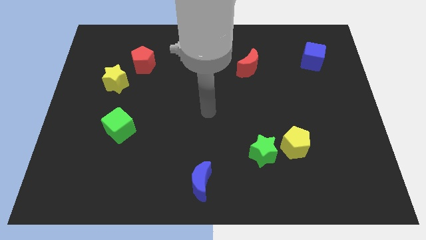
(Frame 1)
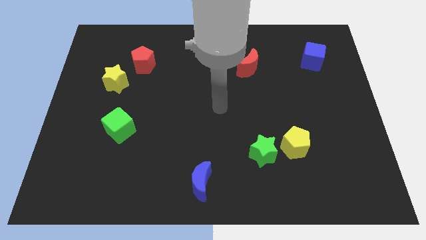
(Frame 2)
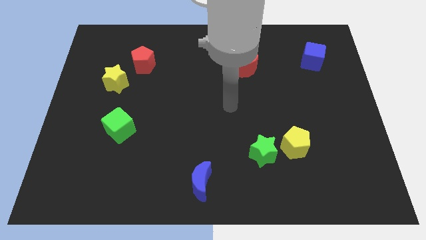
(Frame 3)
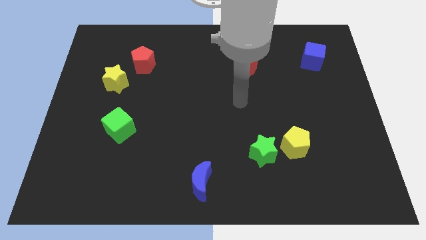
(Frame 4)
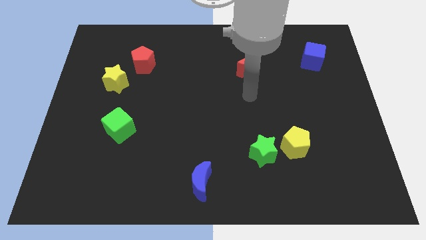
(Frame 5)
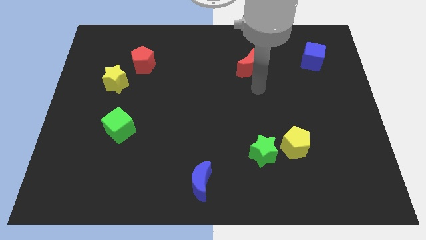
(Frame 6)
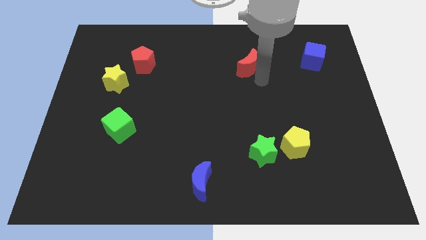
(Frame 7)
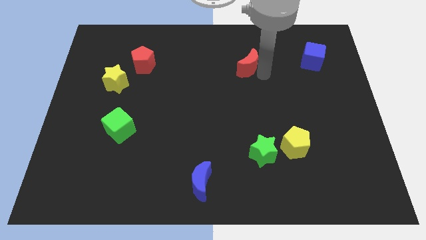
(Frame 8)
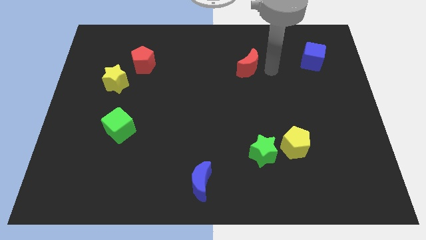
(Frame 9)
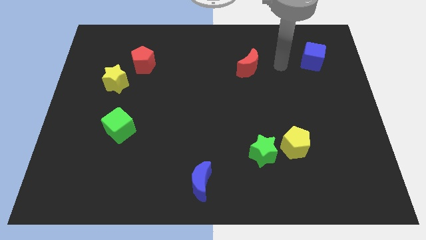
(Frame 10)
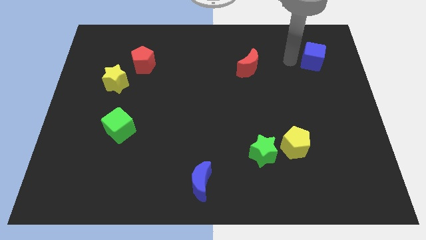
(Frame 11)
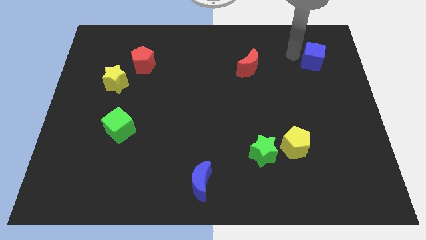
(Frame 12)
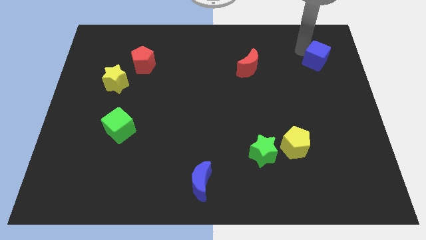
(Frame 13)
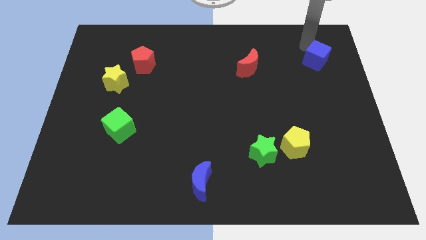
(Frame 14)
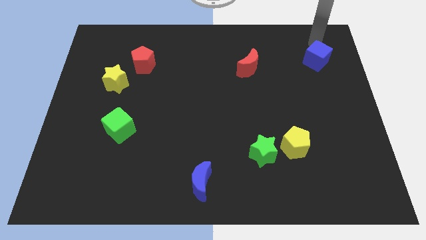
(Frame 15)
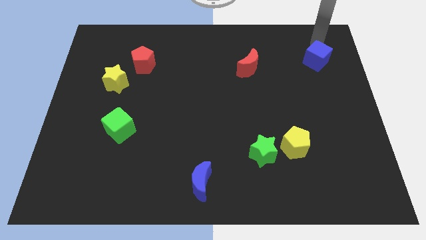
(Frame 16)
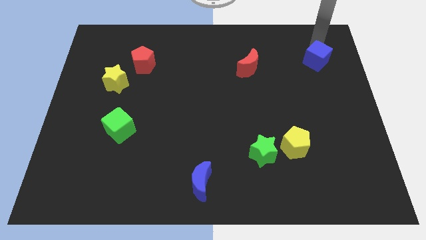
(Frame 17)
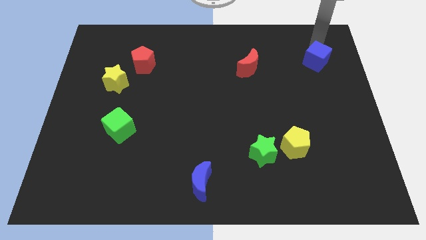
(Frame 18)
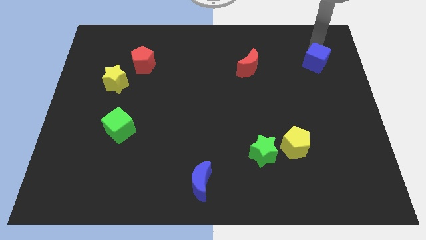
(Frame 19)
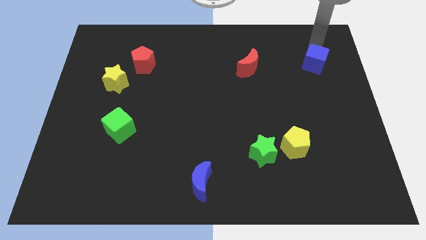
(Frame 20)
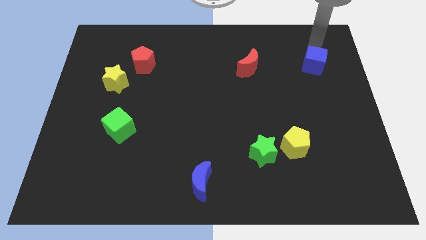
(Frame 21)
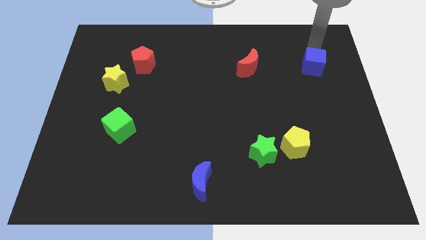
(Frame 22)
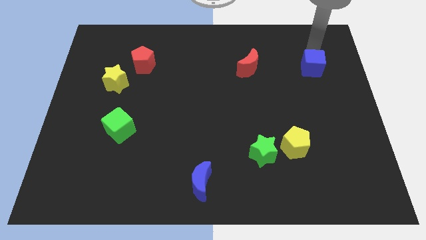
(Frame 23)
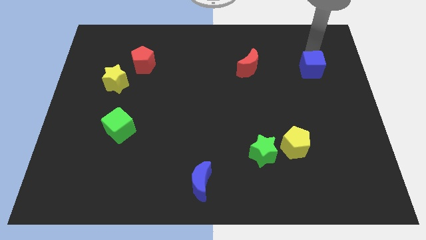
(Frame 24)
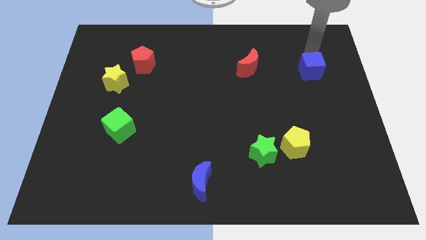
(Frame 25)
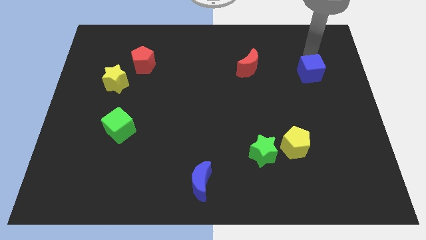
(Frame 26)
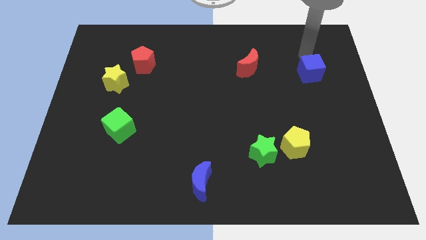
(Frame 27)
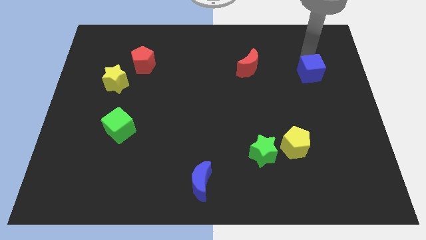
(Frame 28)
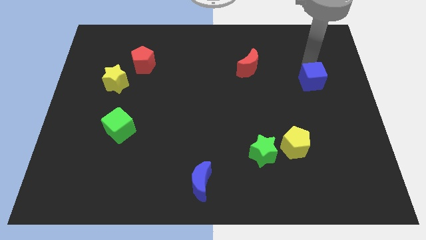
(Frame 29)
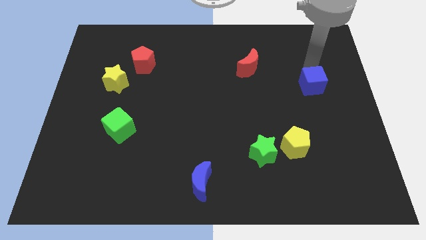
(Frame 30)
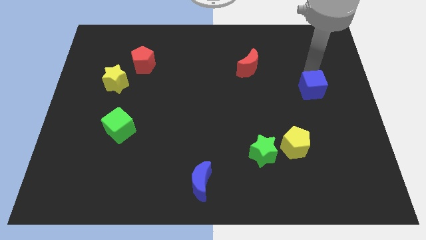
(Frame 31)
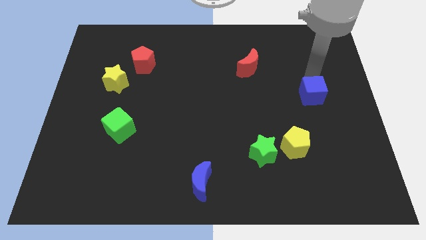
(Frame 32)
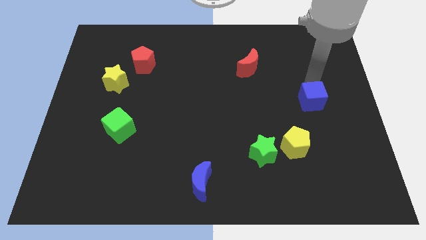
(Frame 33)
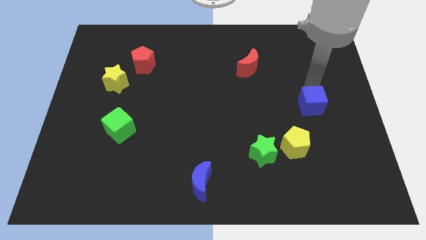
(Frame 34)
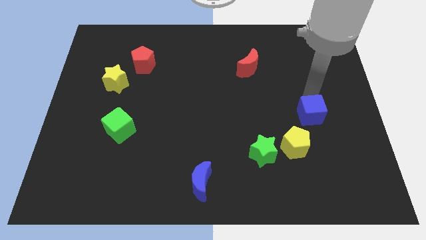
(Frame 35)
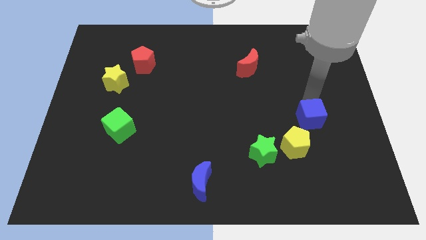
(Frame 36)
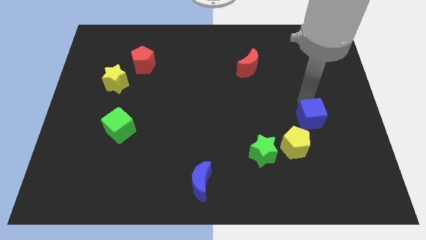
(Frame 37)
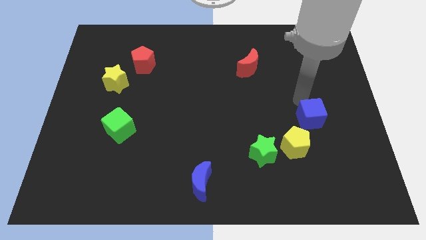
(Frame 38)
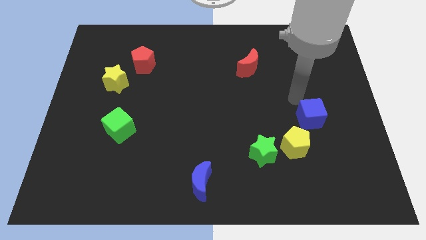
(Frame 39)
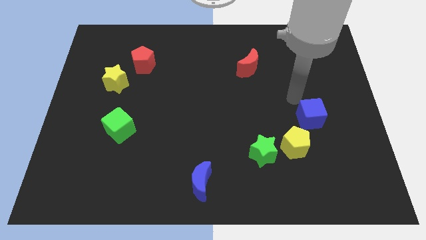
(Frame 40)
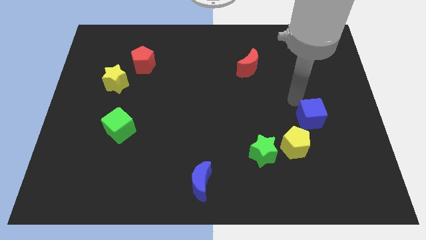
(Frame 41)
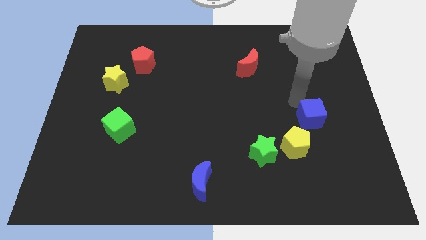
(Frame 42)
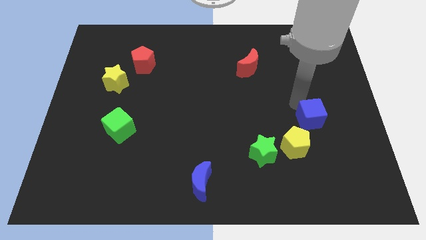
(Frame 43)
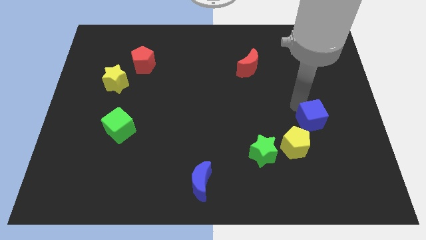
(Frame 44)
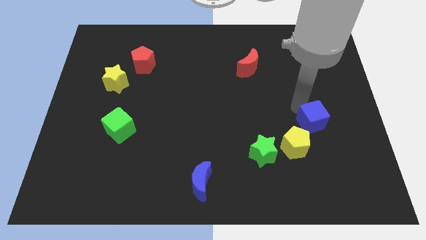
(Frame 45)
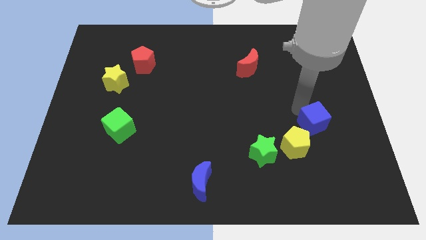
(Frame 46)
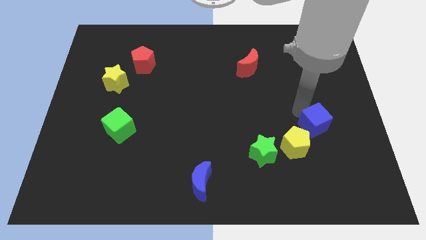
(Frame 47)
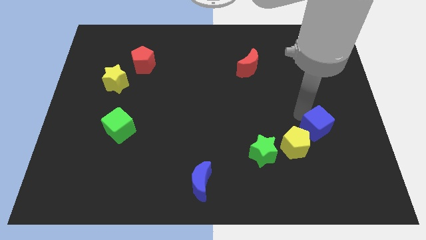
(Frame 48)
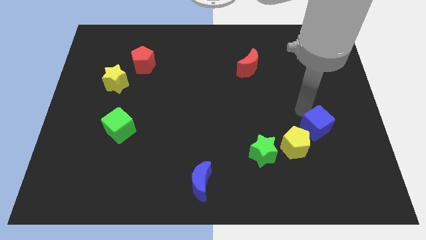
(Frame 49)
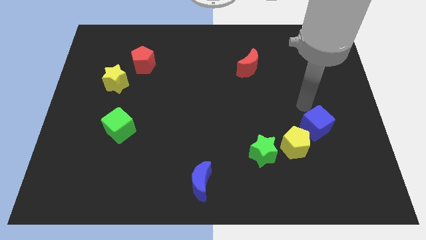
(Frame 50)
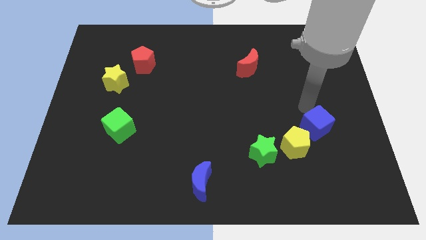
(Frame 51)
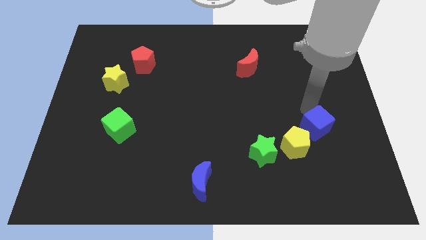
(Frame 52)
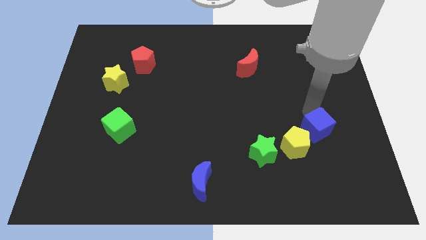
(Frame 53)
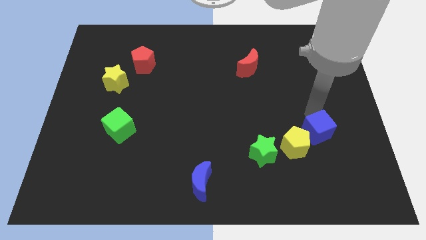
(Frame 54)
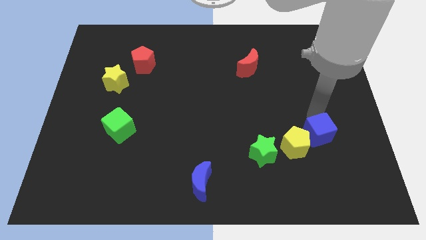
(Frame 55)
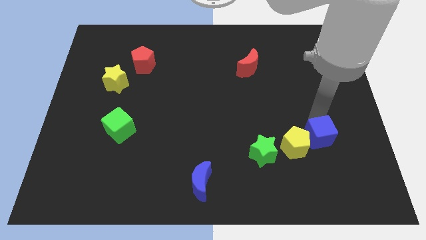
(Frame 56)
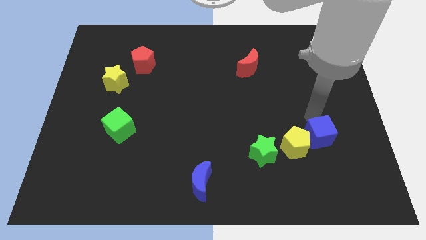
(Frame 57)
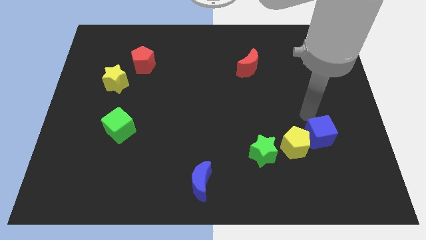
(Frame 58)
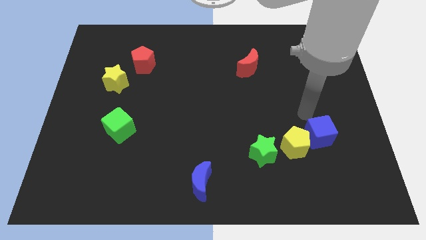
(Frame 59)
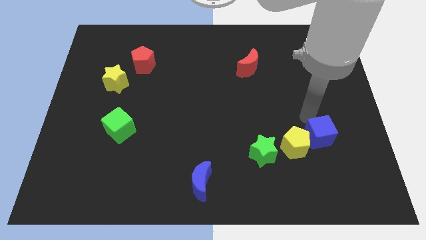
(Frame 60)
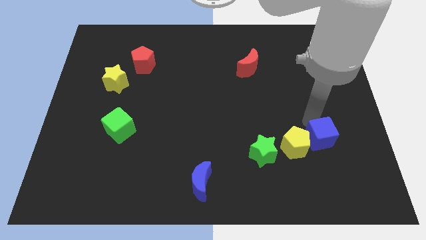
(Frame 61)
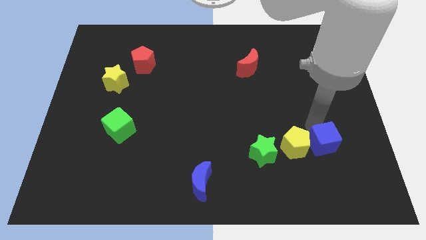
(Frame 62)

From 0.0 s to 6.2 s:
slide the blue cube to the bottom right of the yellow pentagon

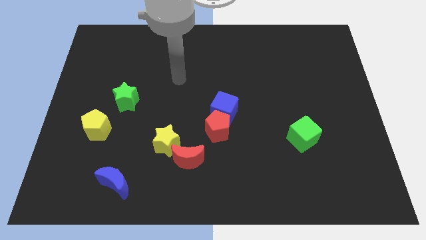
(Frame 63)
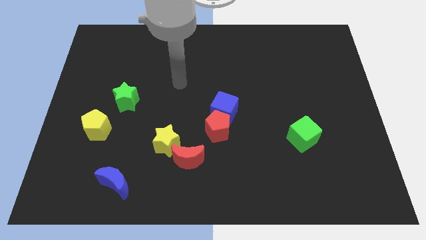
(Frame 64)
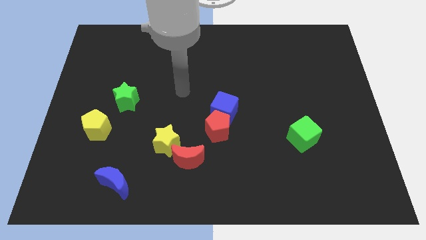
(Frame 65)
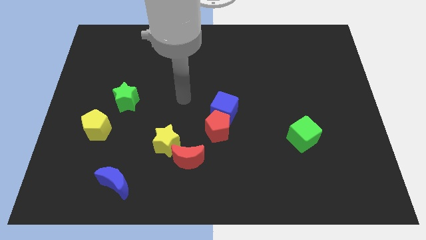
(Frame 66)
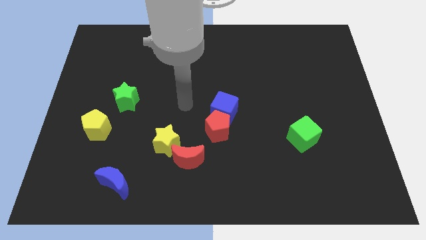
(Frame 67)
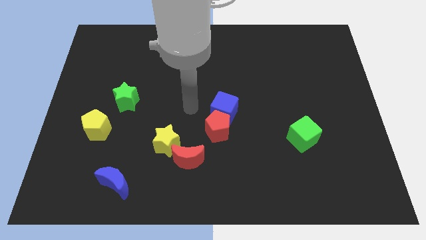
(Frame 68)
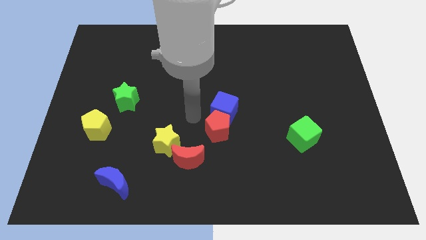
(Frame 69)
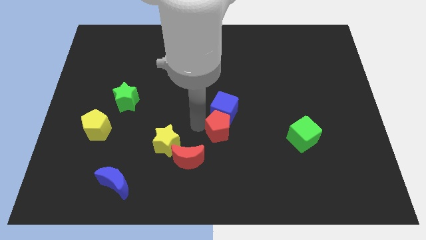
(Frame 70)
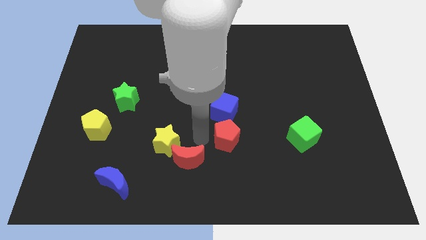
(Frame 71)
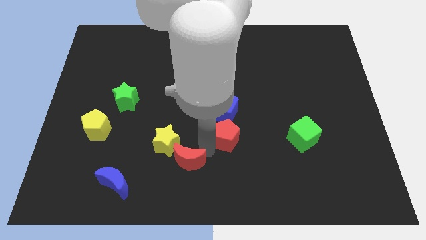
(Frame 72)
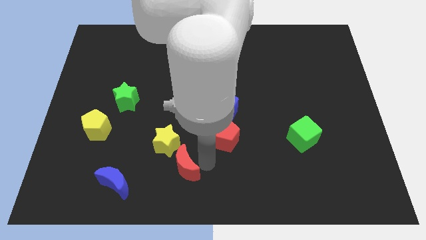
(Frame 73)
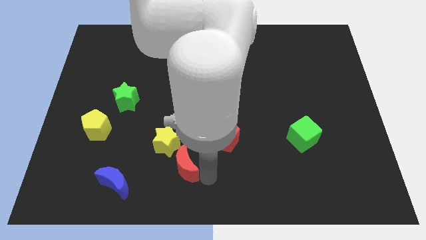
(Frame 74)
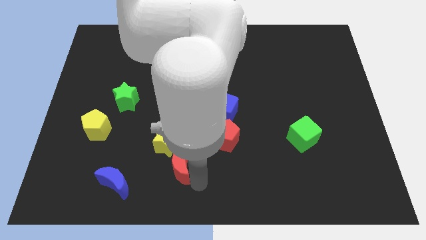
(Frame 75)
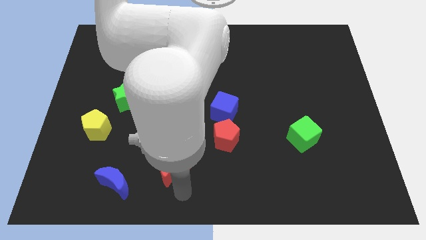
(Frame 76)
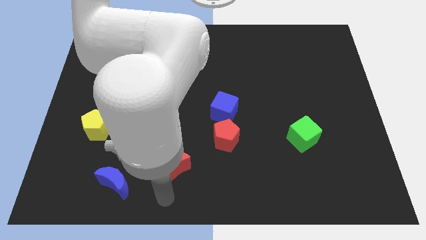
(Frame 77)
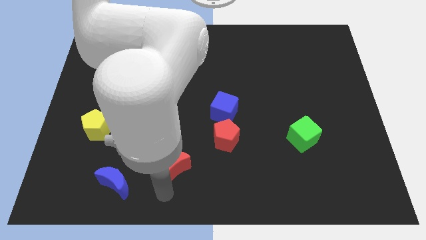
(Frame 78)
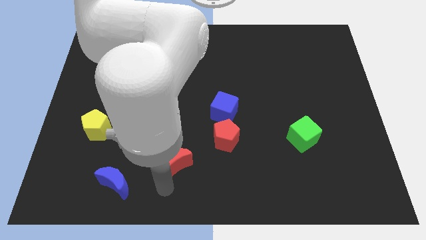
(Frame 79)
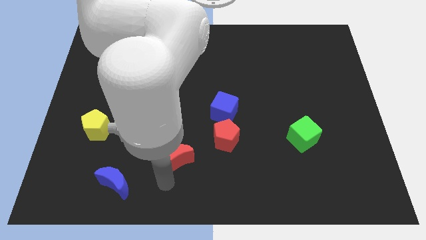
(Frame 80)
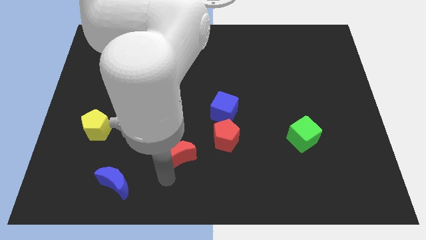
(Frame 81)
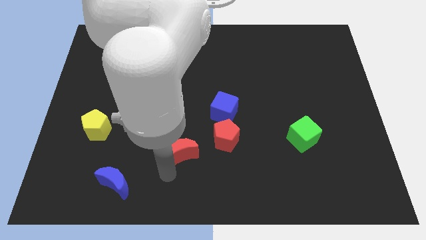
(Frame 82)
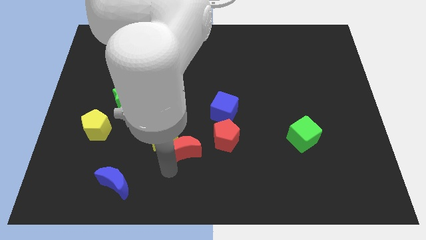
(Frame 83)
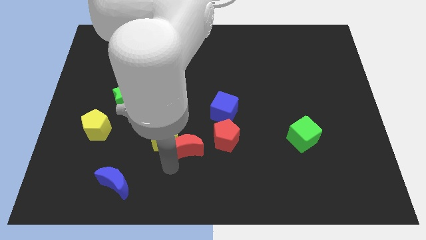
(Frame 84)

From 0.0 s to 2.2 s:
put the red moon diagonally up and to the right of the yellow star
